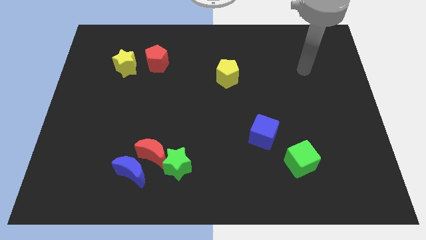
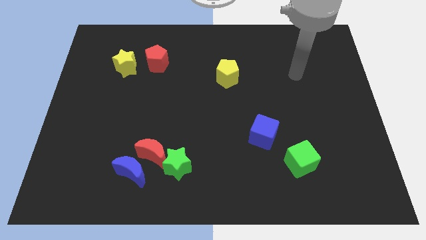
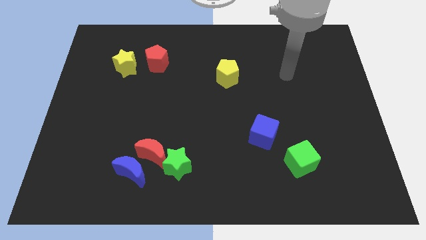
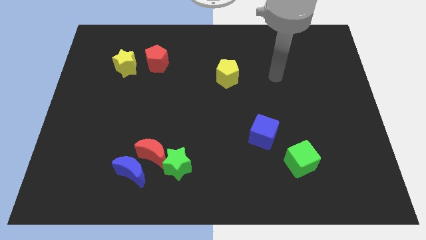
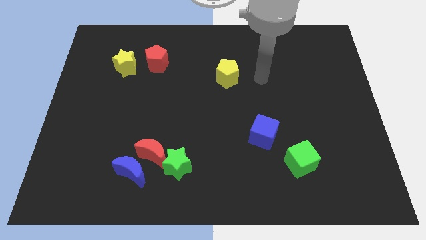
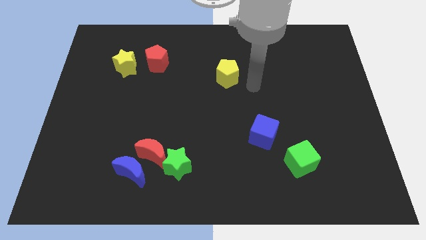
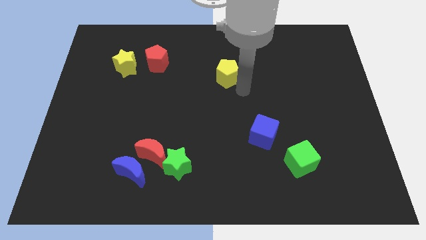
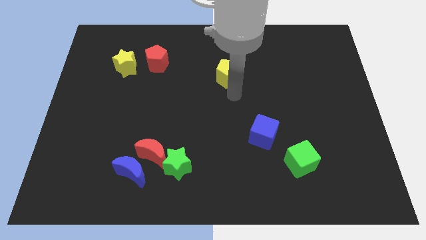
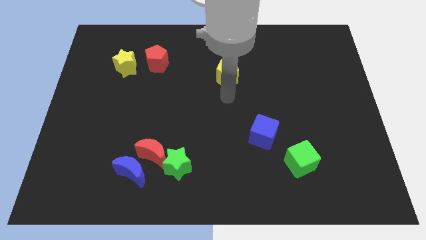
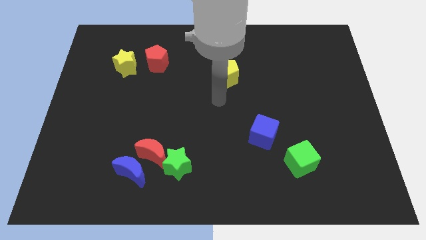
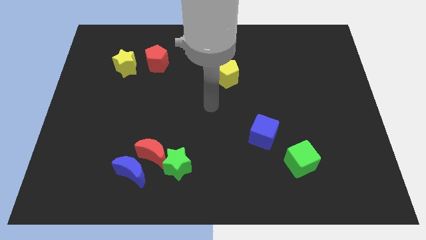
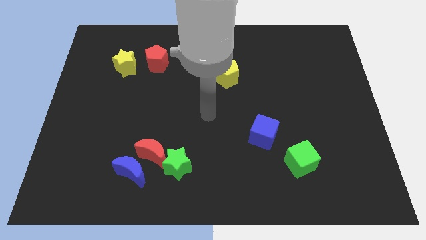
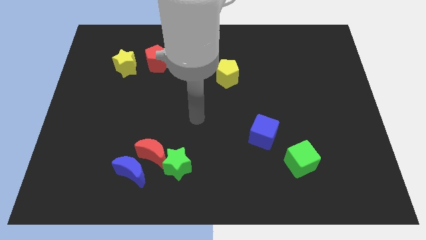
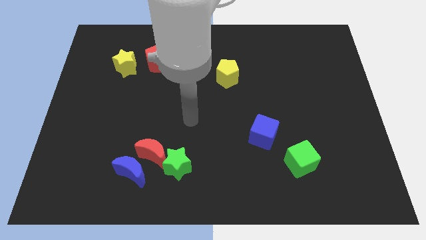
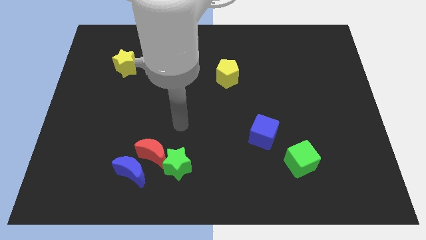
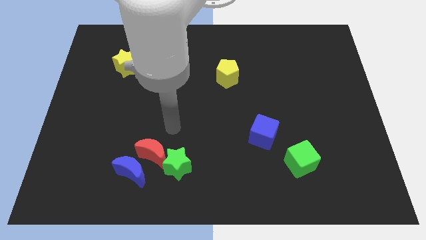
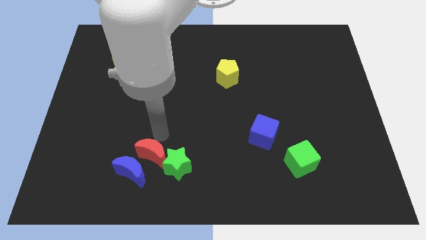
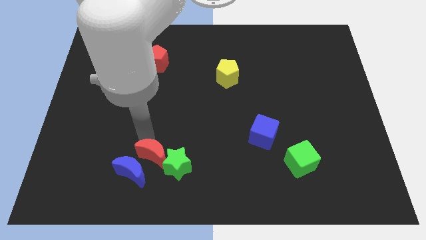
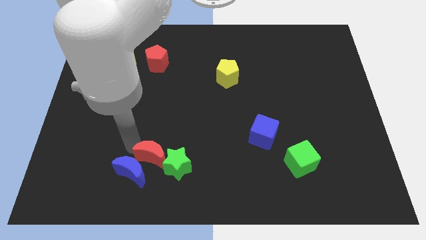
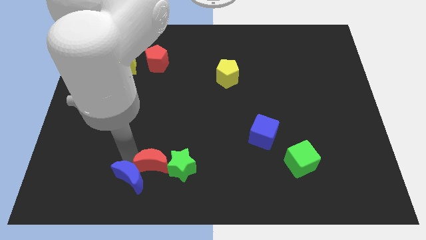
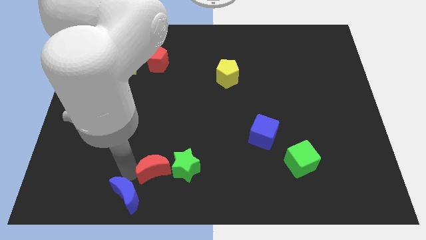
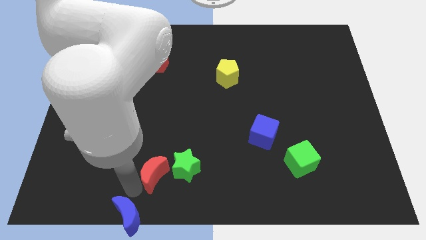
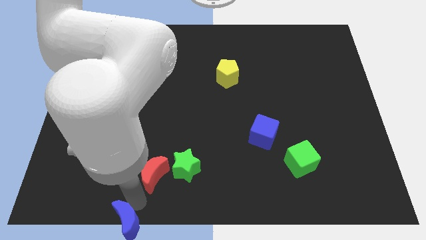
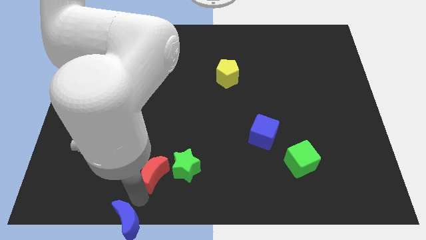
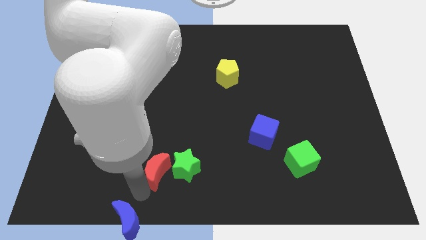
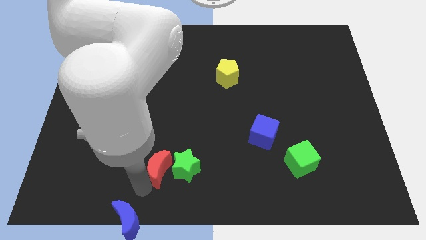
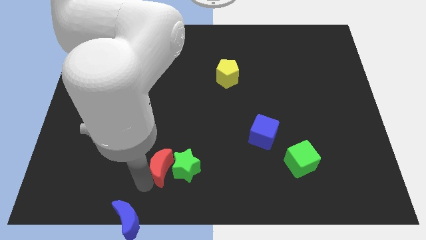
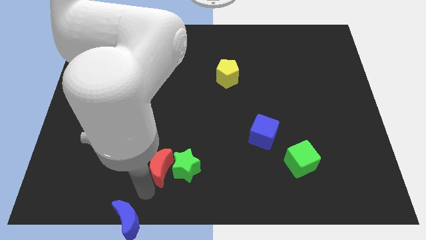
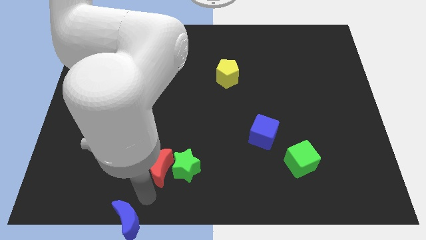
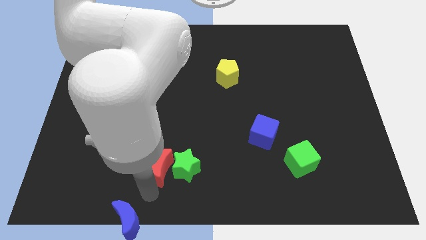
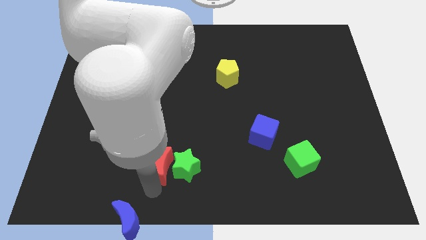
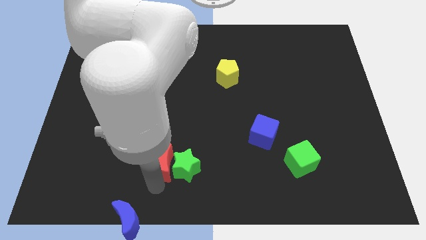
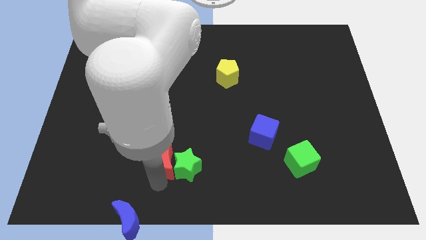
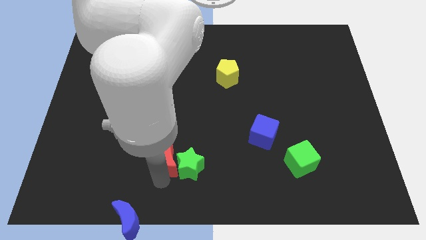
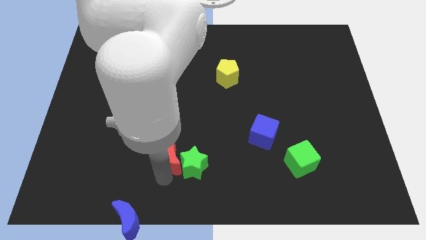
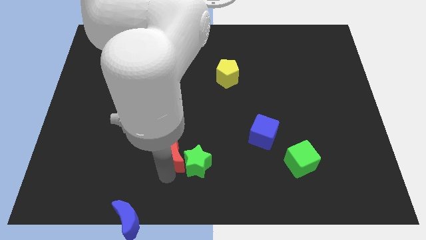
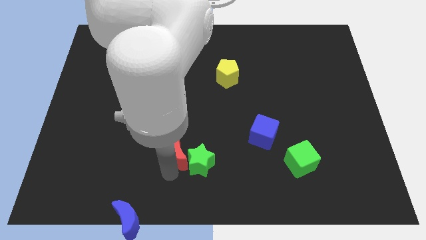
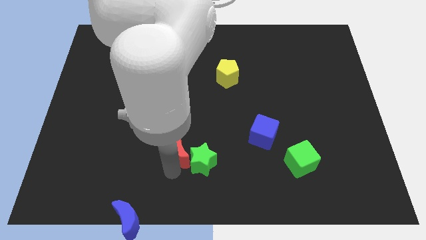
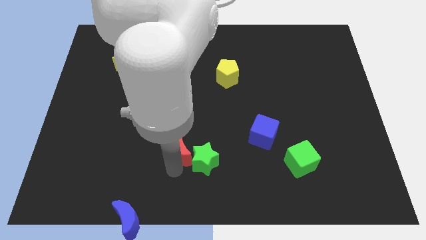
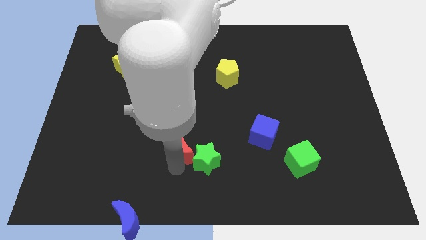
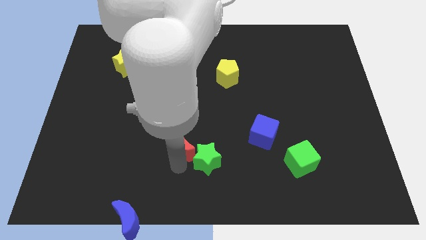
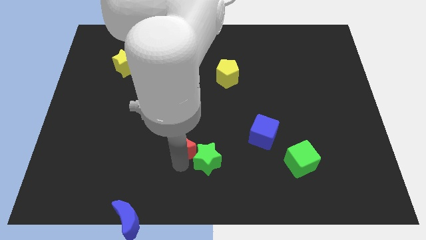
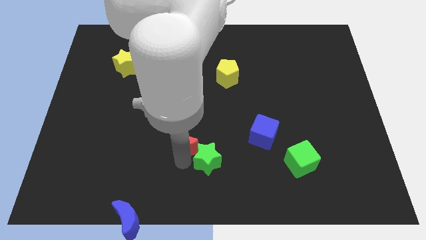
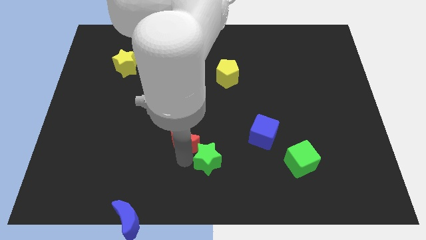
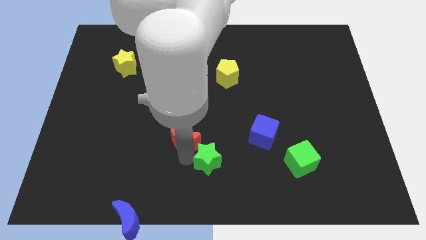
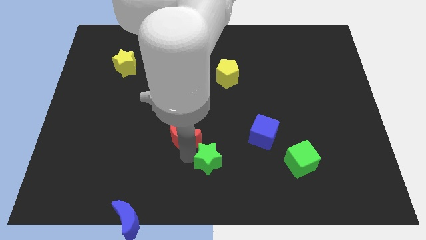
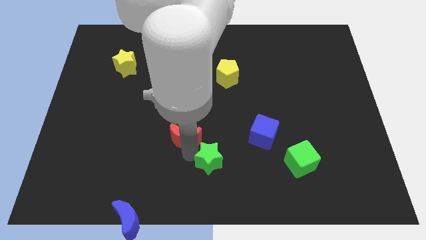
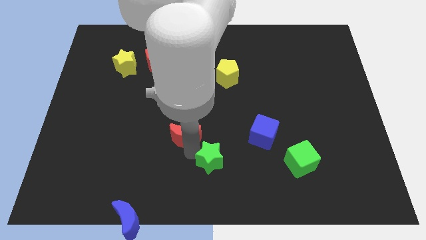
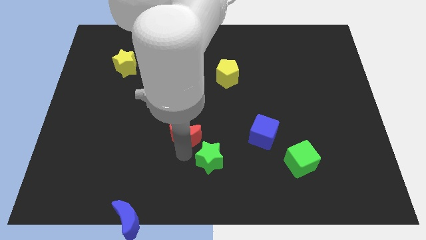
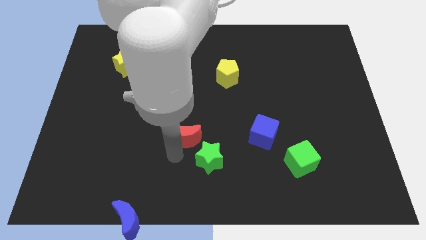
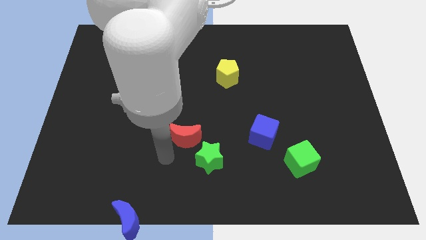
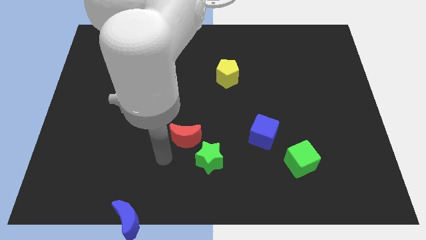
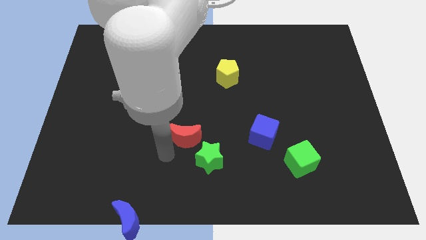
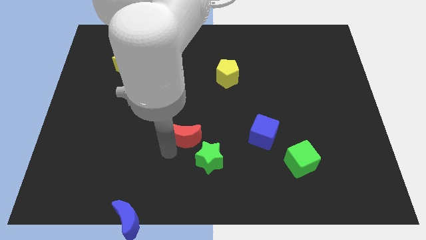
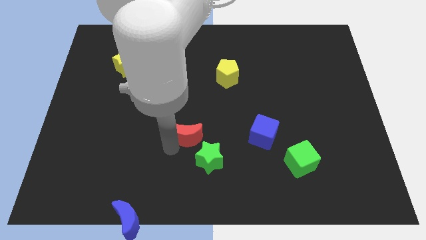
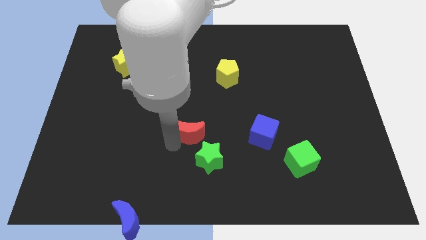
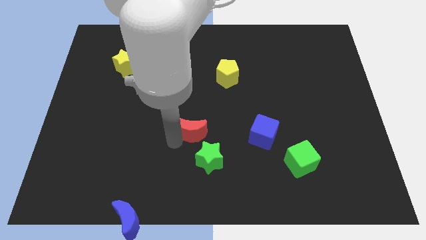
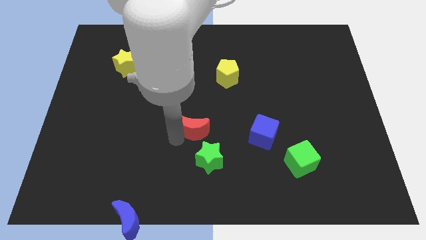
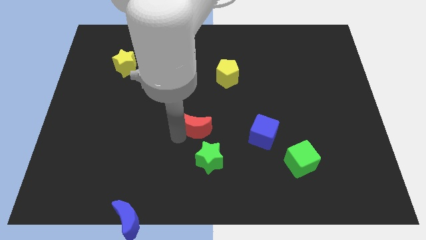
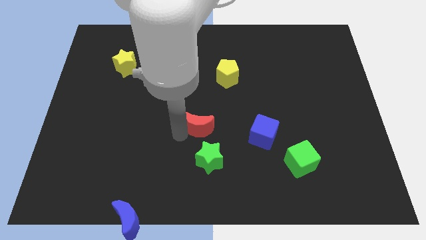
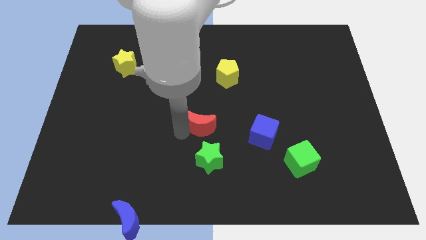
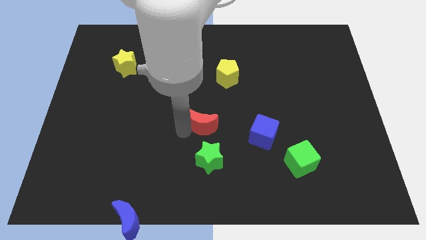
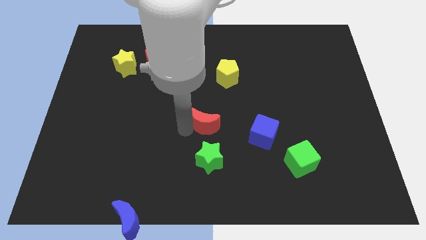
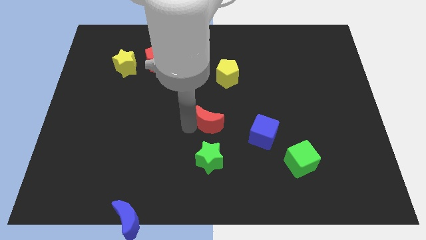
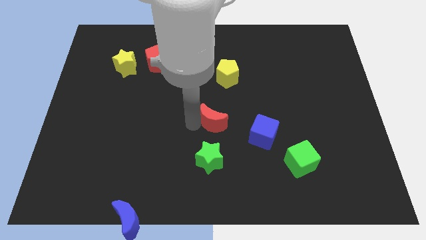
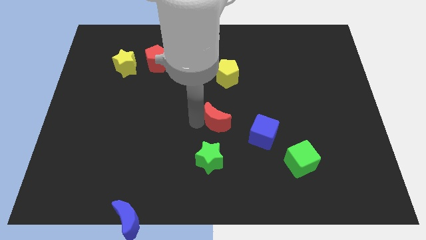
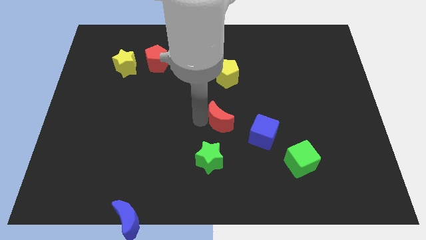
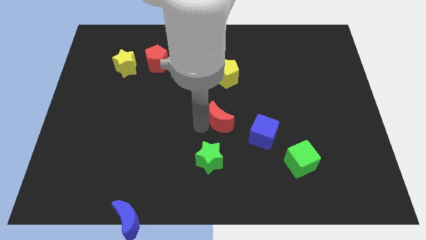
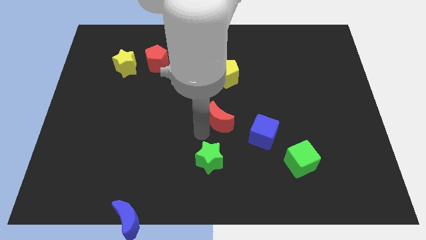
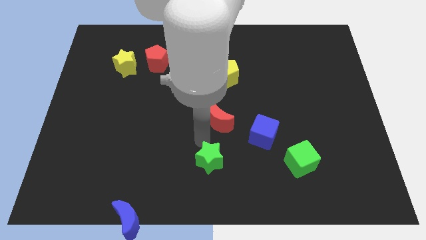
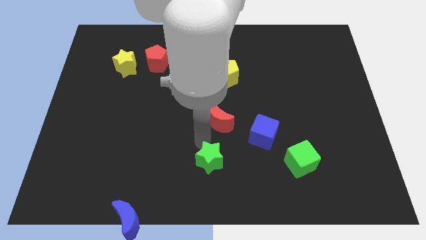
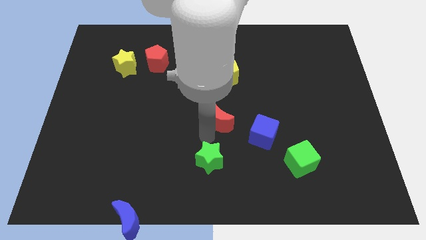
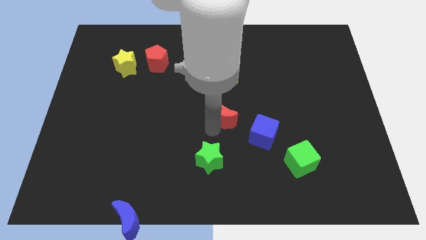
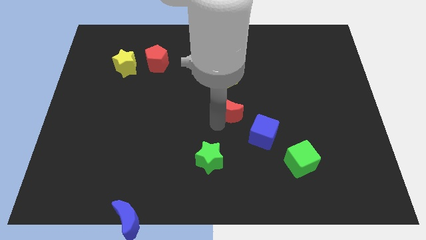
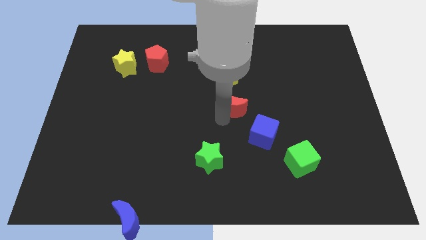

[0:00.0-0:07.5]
move the red moon up and right diagonally

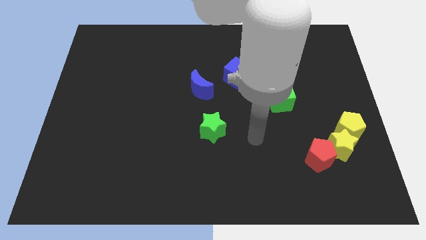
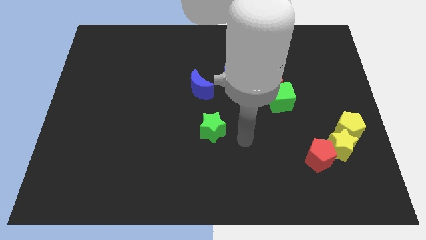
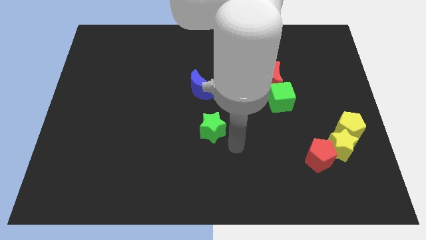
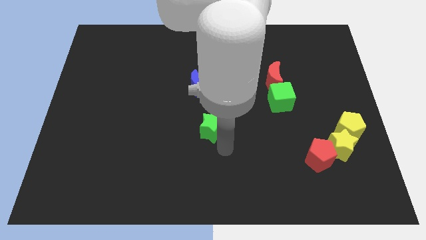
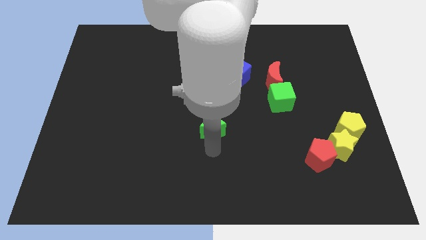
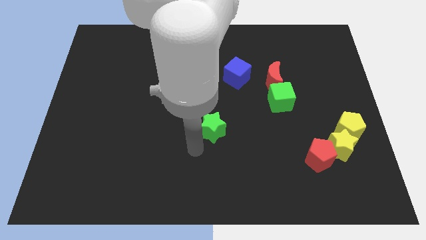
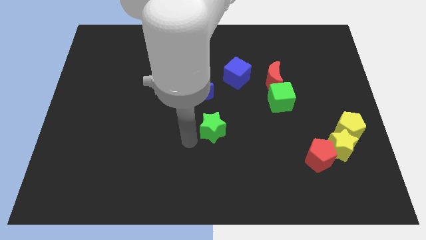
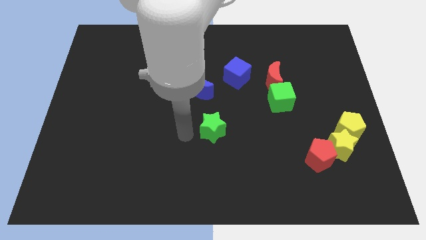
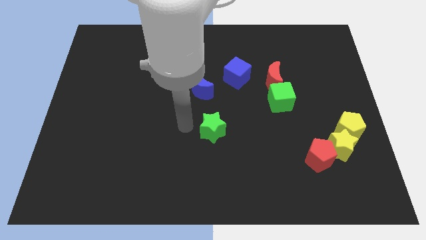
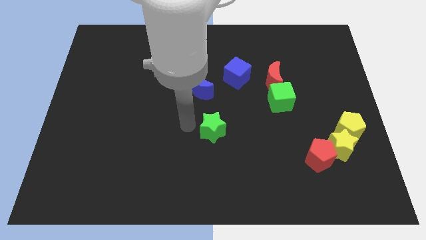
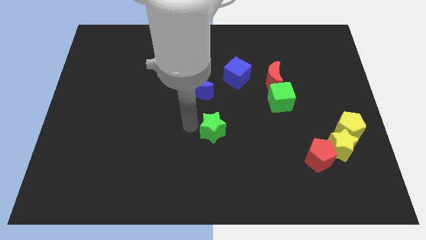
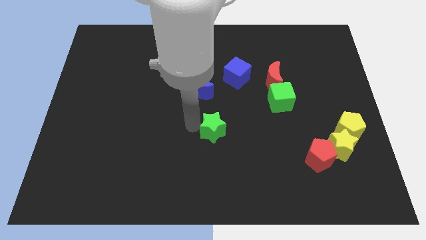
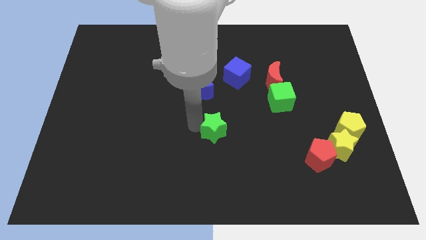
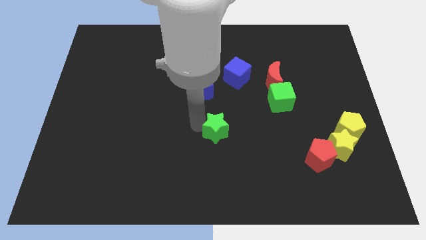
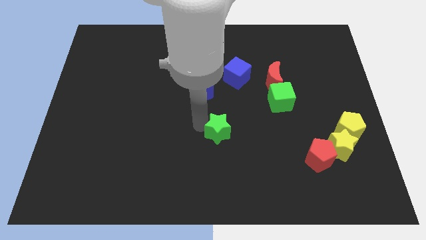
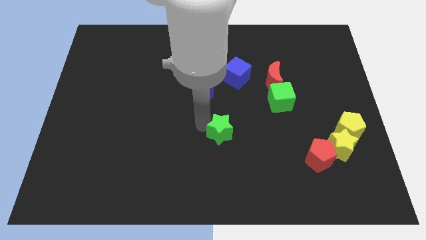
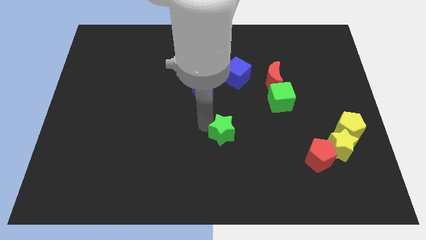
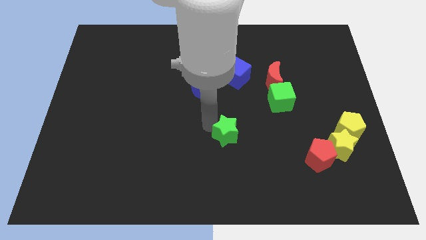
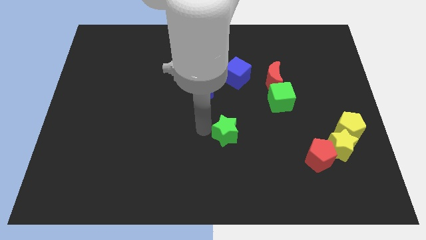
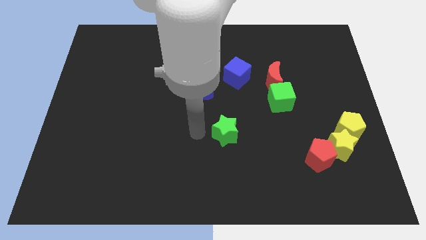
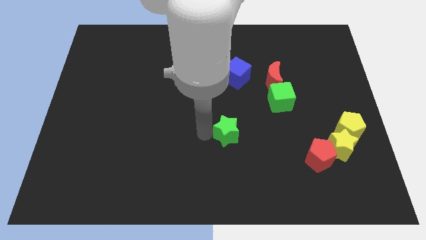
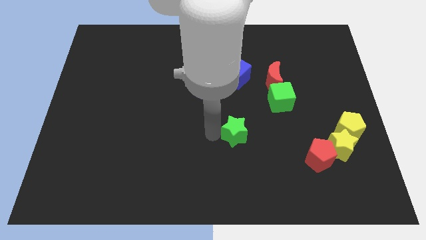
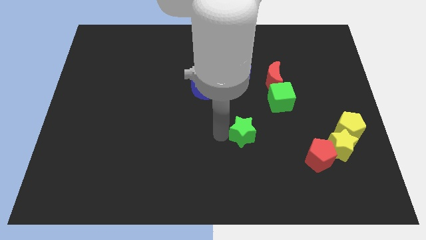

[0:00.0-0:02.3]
push the green star right somewhat
